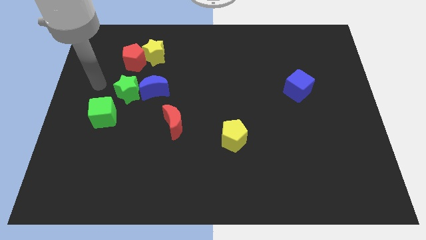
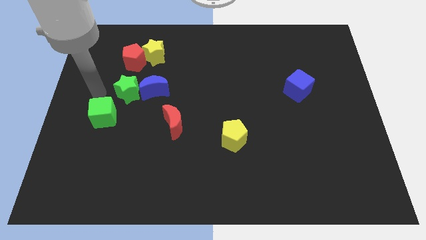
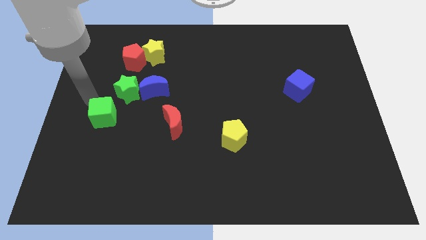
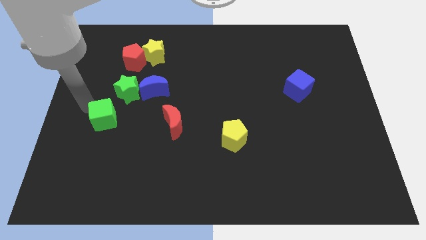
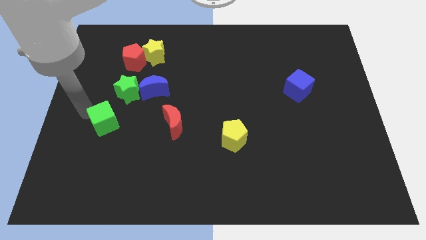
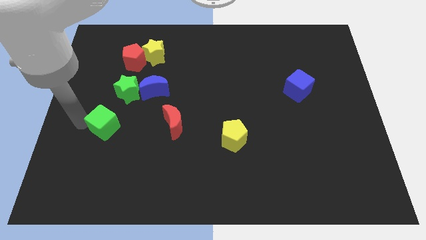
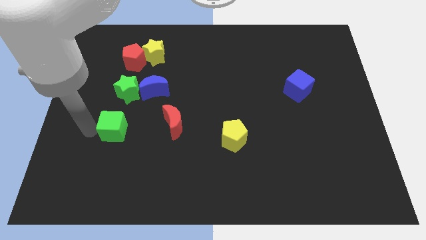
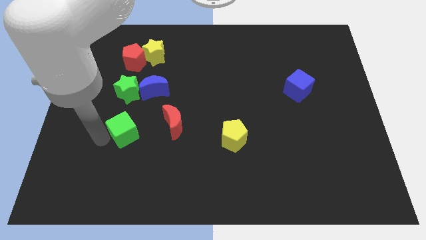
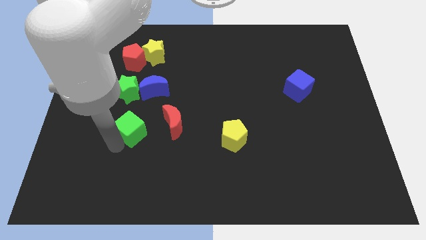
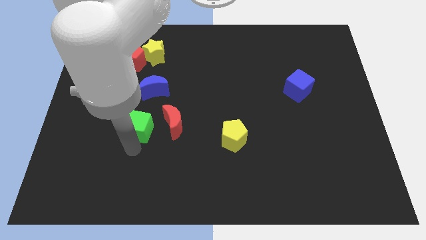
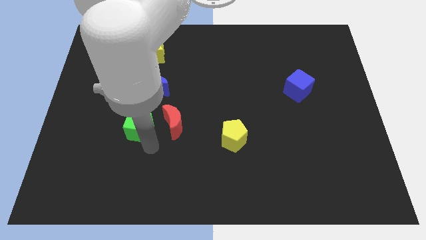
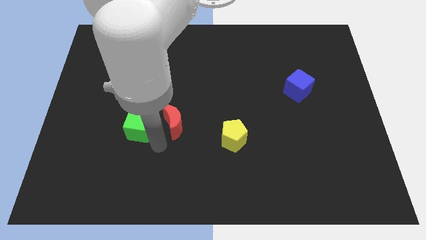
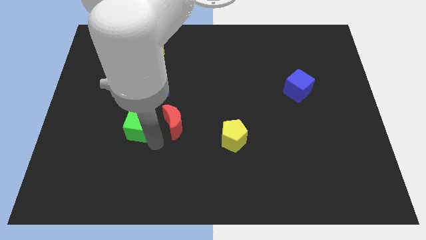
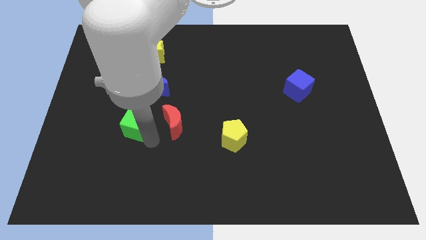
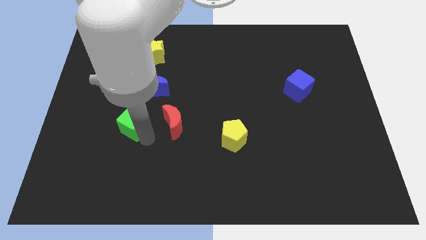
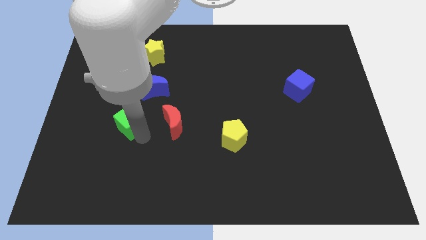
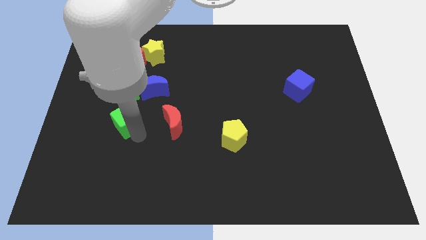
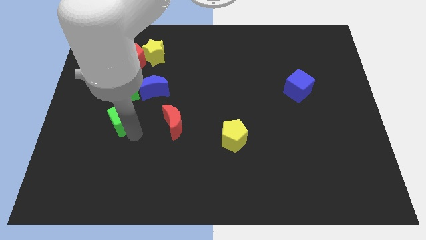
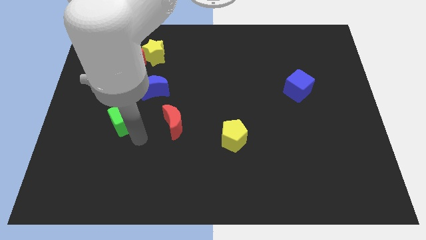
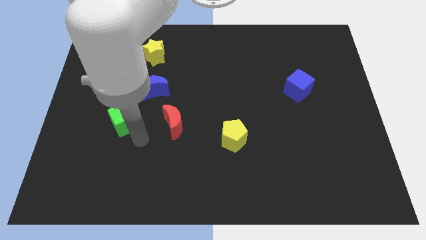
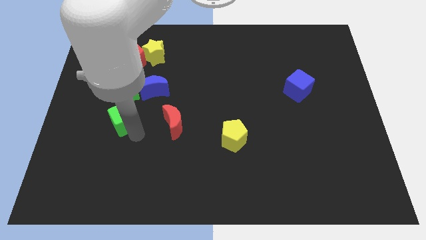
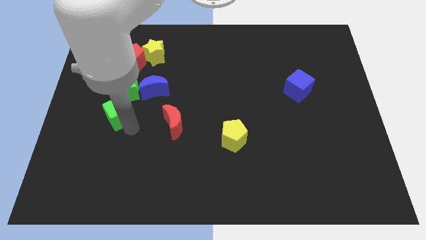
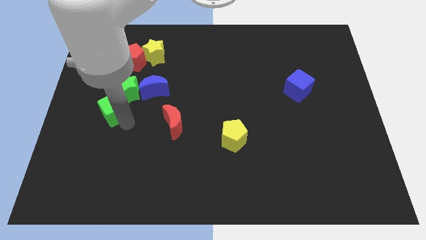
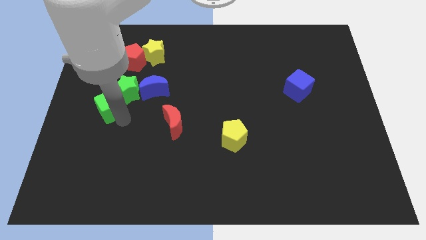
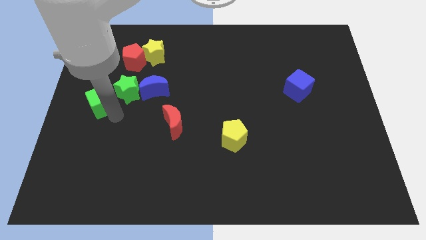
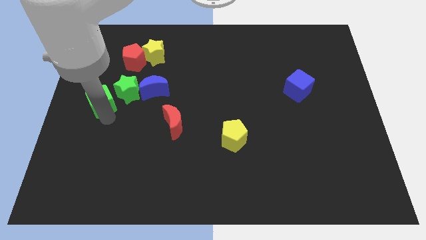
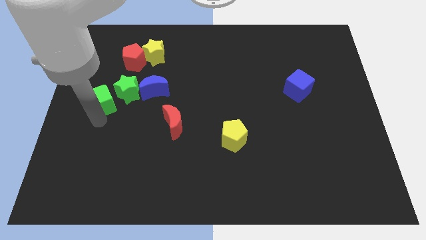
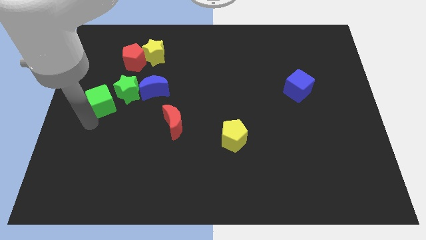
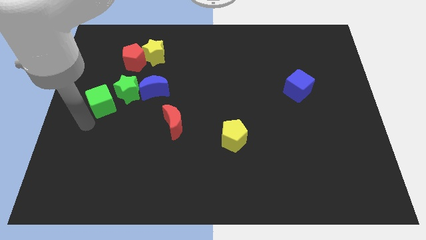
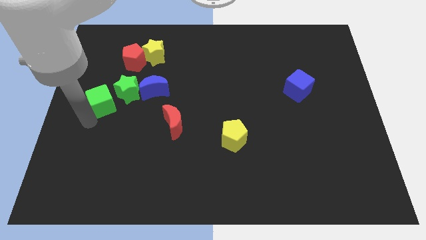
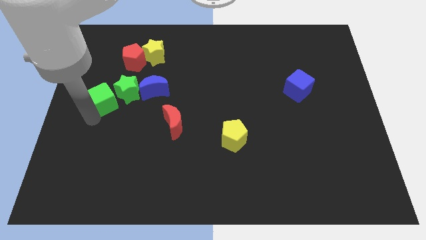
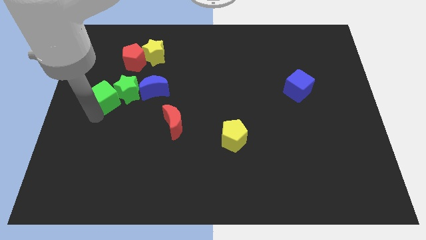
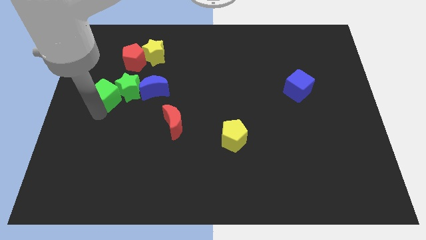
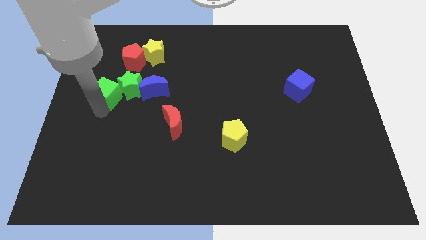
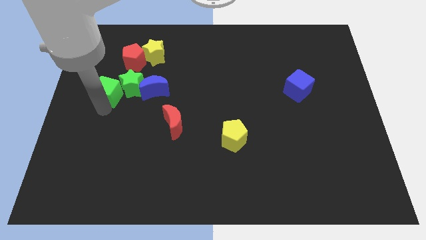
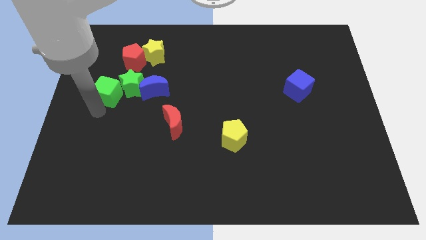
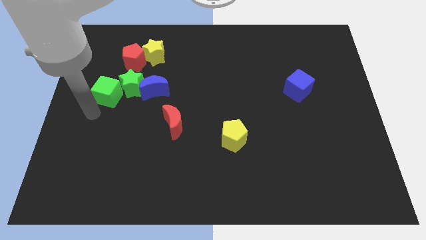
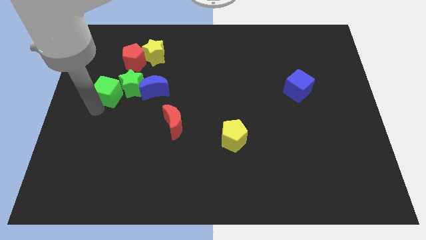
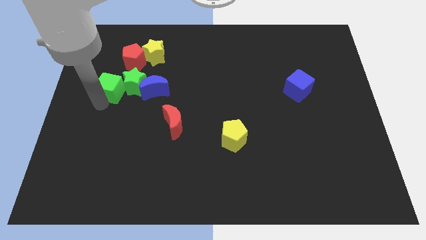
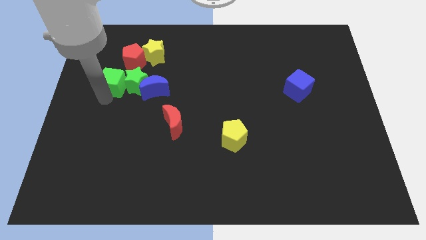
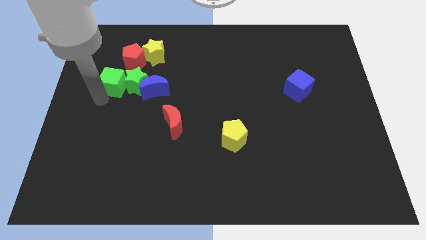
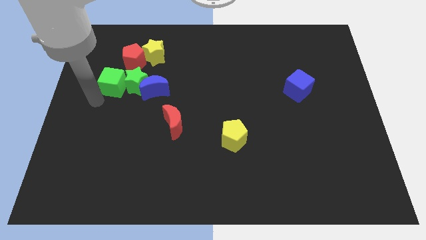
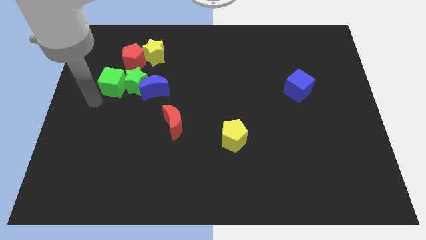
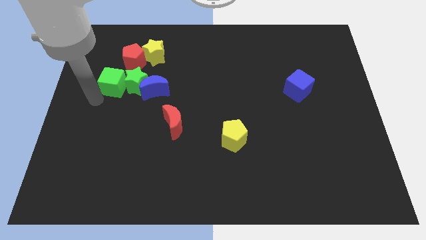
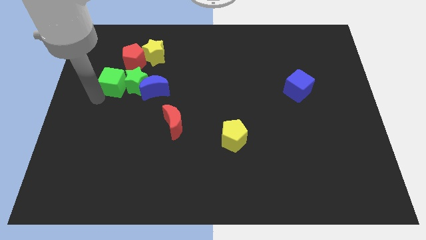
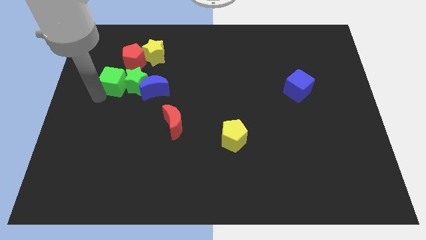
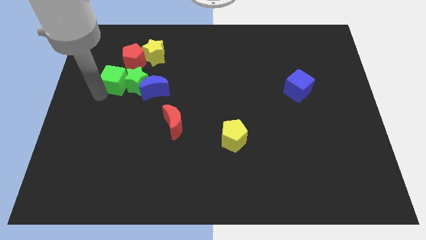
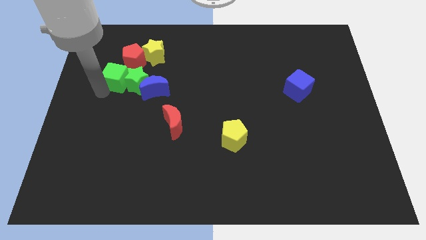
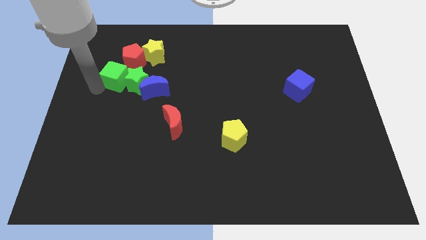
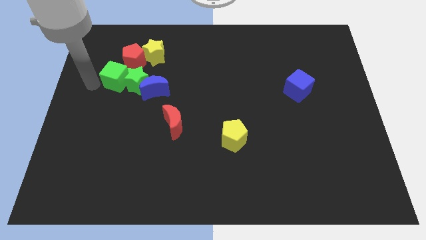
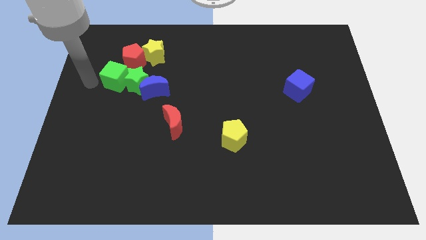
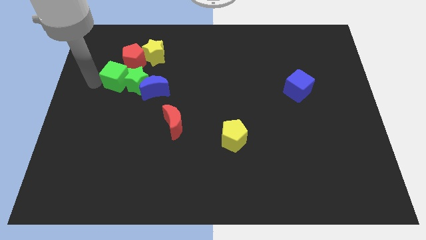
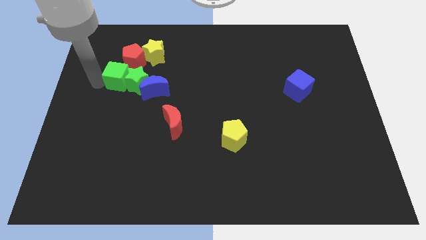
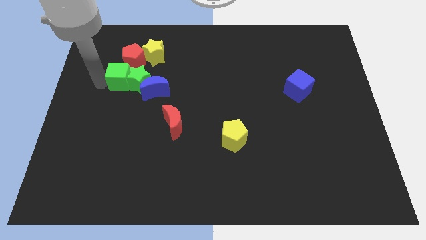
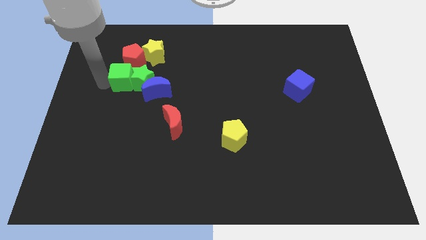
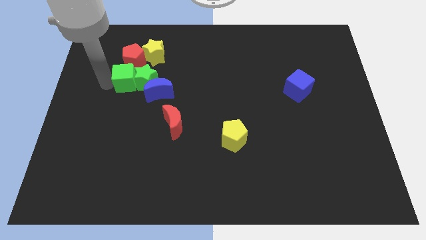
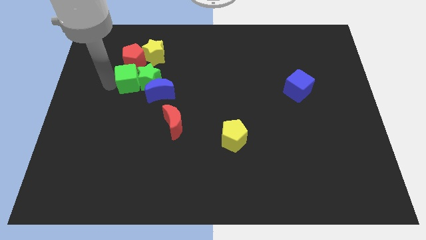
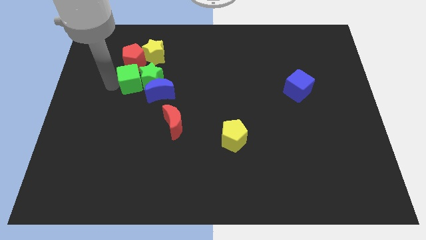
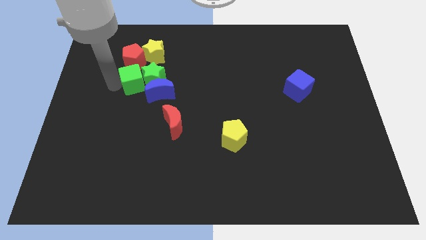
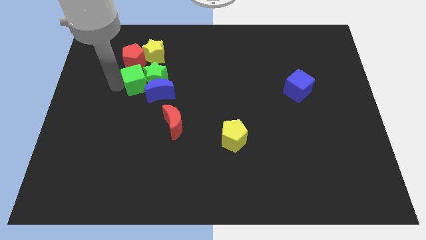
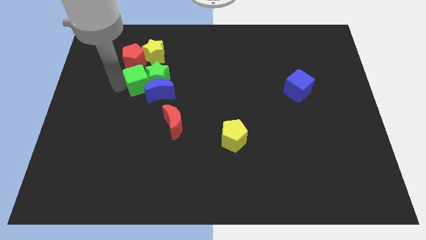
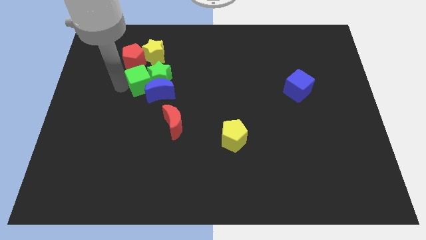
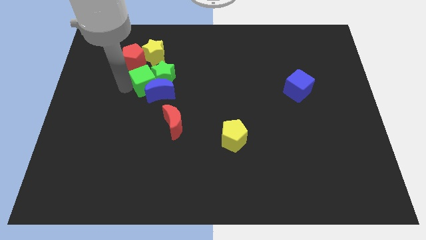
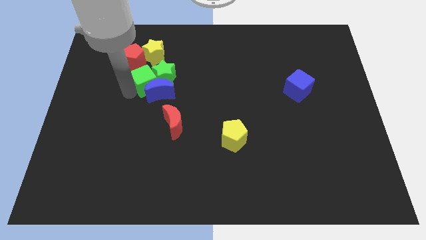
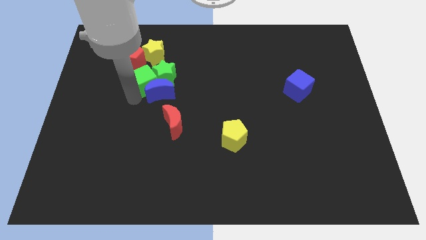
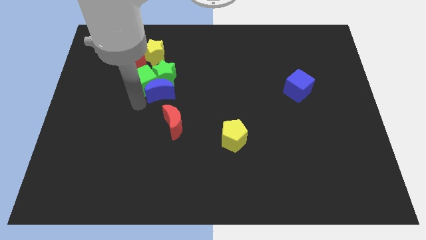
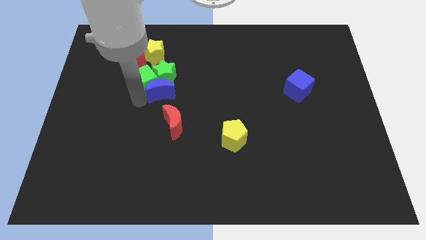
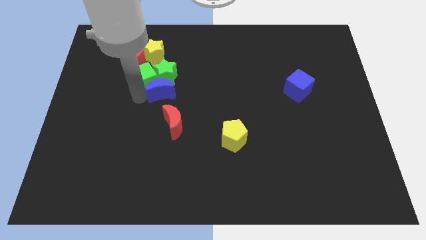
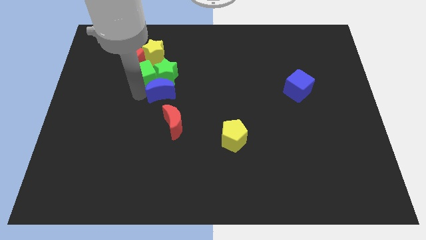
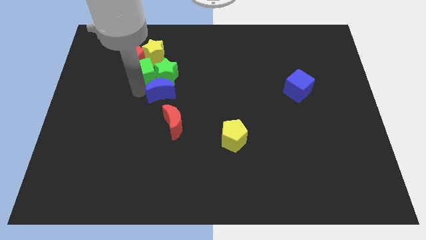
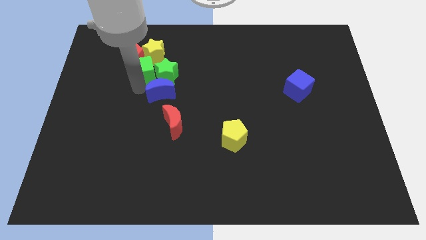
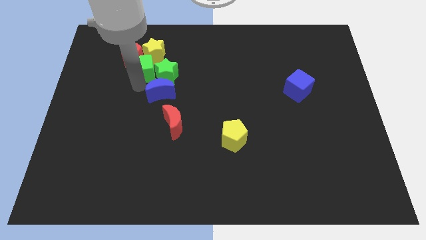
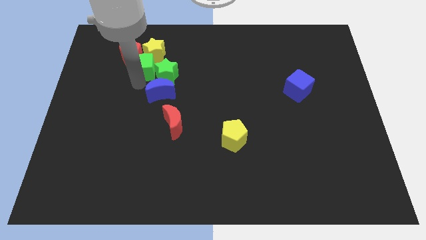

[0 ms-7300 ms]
slide the green cube next to the yellow star
